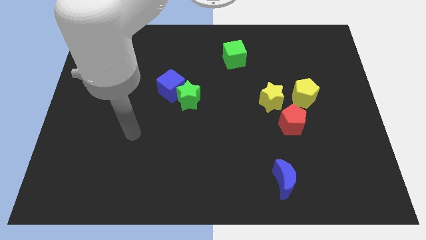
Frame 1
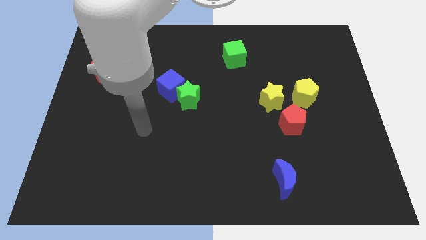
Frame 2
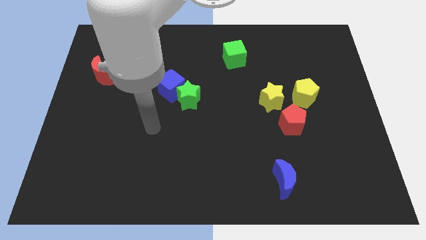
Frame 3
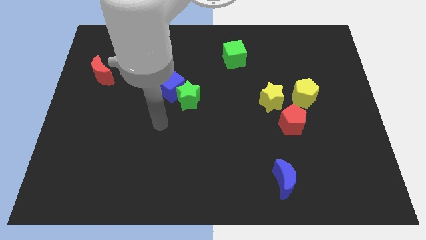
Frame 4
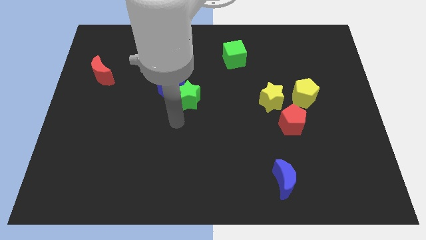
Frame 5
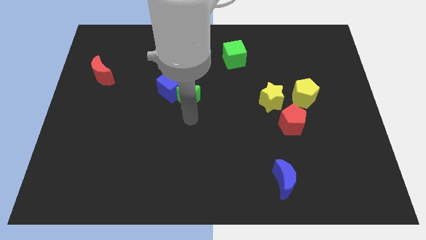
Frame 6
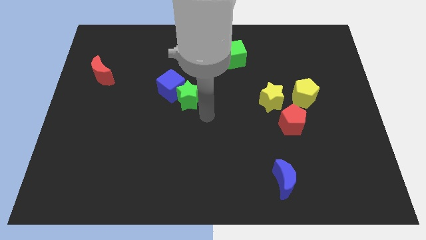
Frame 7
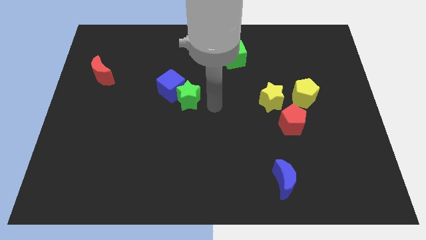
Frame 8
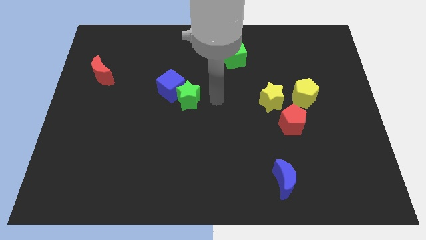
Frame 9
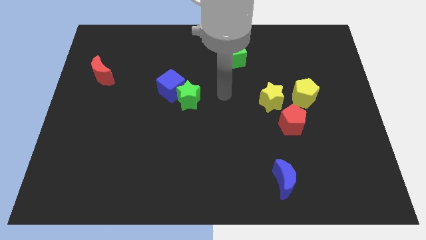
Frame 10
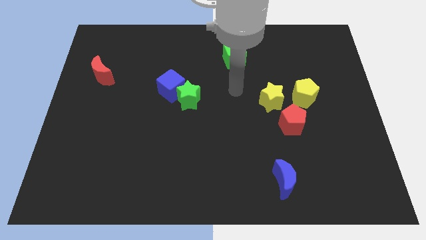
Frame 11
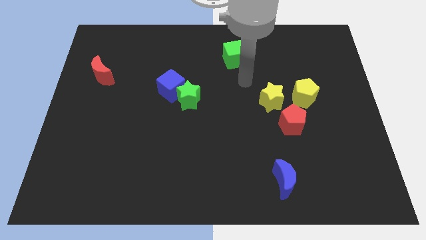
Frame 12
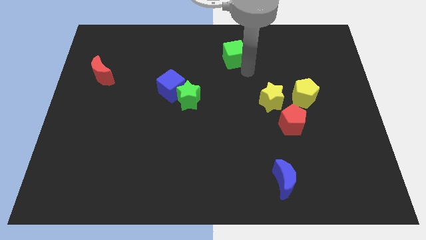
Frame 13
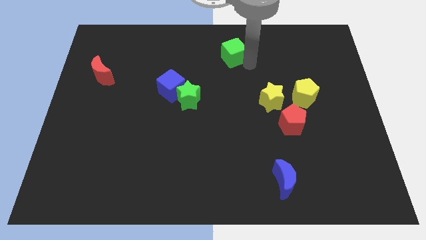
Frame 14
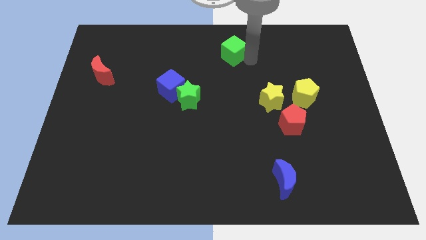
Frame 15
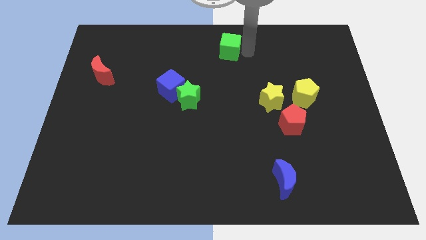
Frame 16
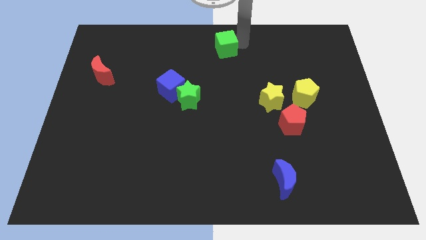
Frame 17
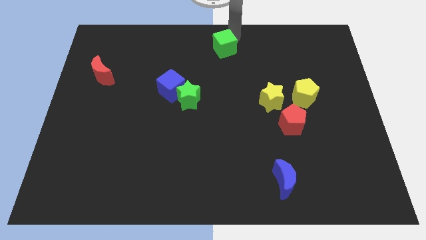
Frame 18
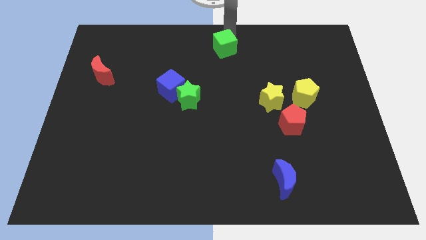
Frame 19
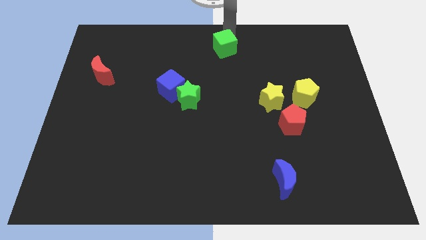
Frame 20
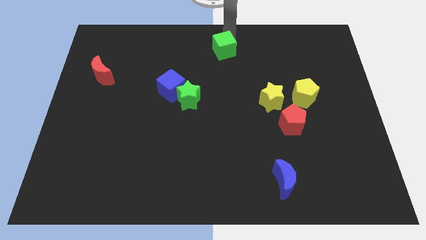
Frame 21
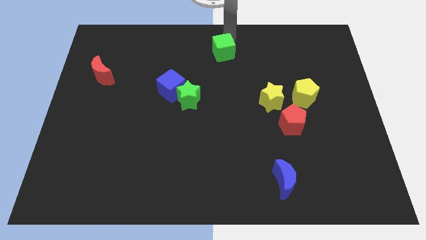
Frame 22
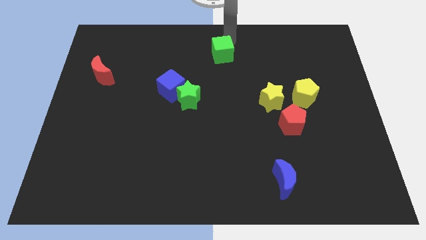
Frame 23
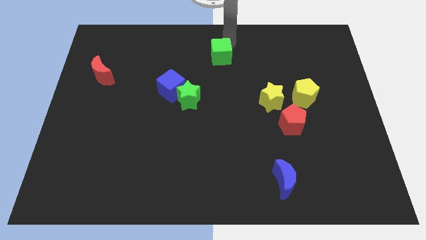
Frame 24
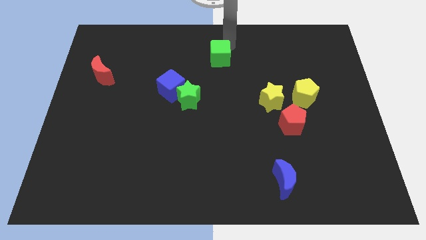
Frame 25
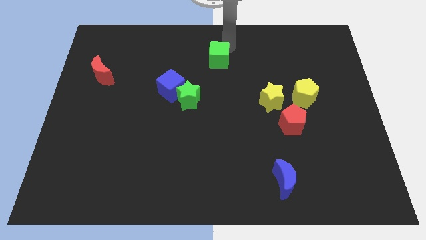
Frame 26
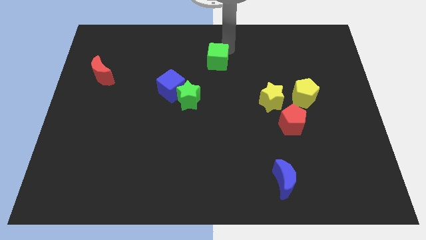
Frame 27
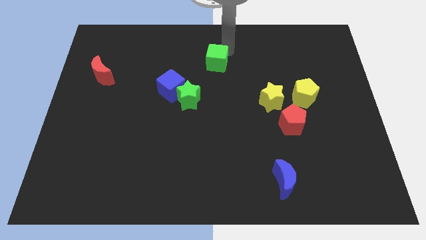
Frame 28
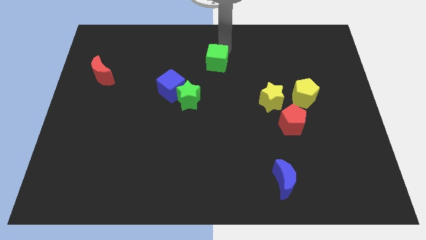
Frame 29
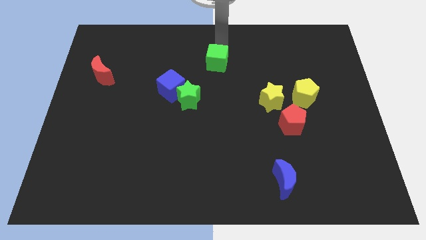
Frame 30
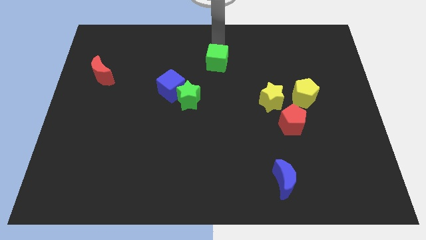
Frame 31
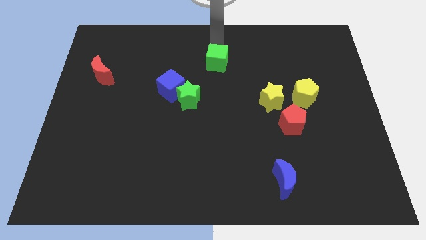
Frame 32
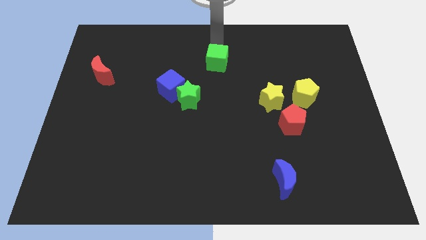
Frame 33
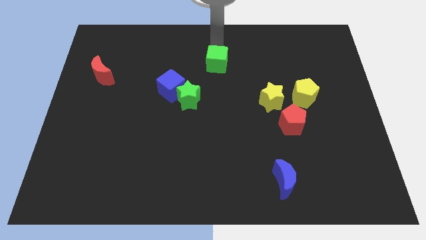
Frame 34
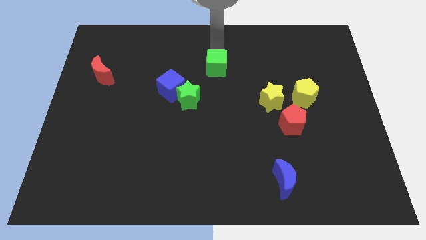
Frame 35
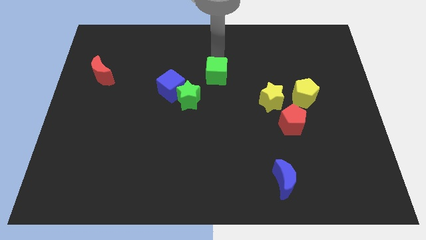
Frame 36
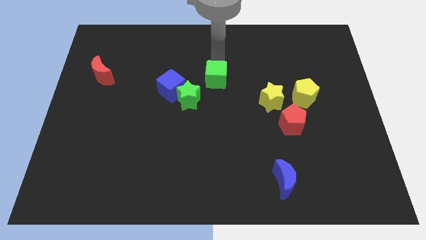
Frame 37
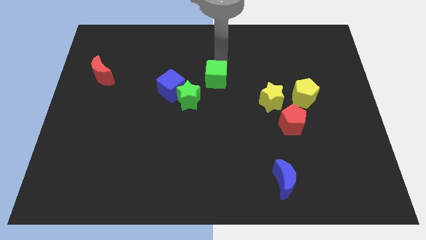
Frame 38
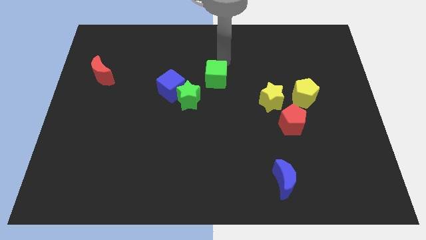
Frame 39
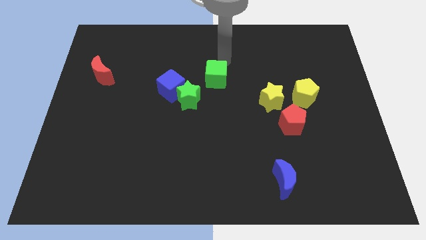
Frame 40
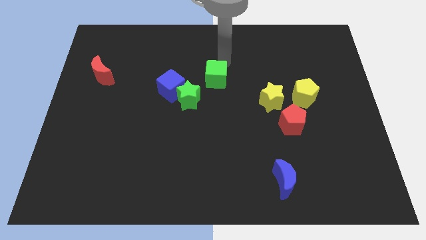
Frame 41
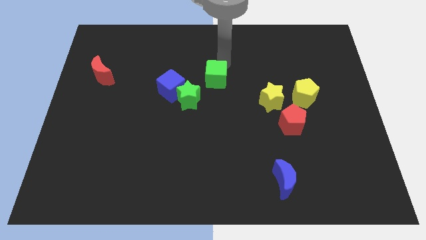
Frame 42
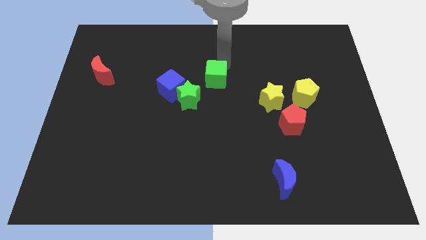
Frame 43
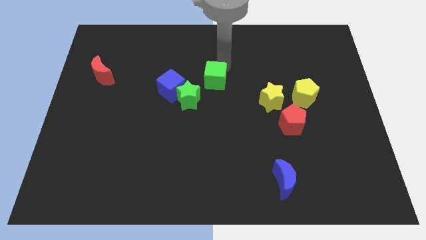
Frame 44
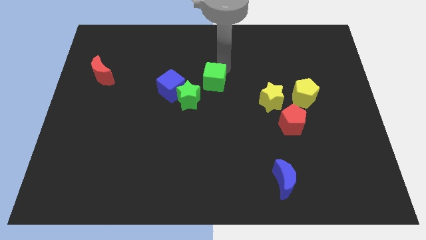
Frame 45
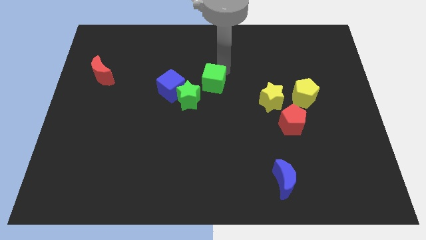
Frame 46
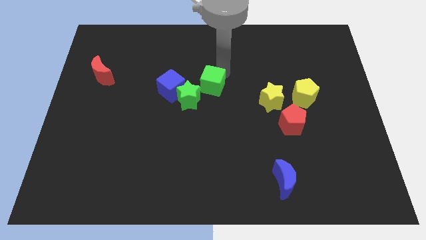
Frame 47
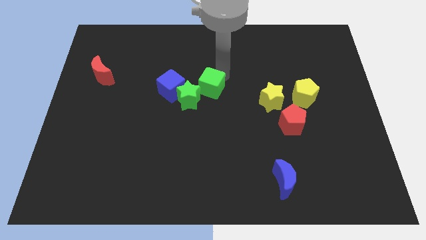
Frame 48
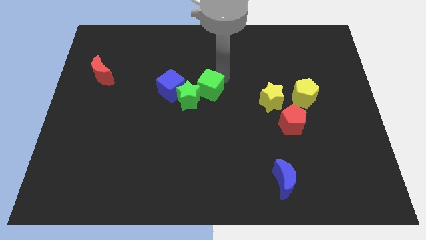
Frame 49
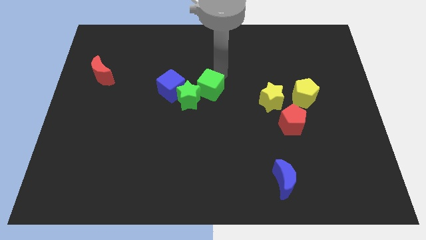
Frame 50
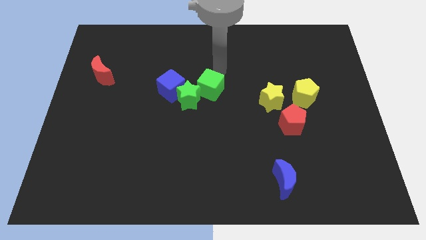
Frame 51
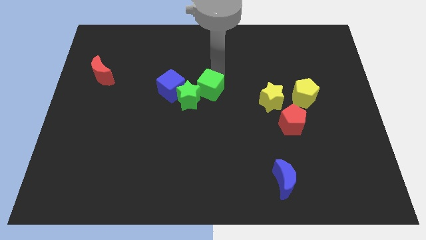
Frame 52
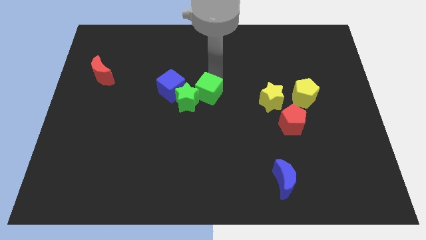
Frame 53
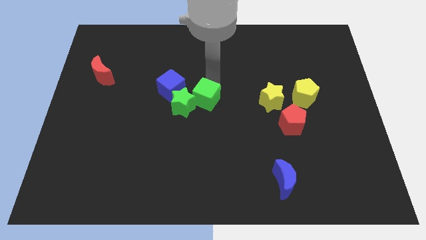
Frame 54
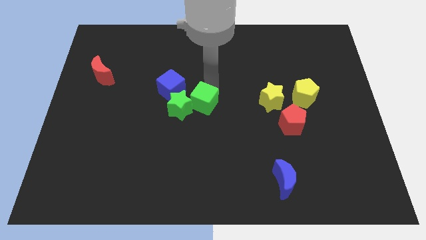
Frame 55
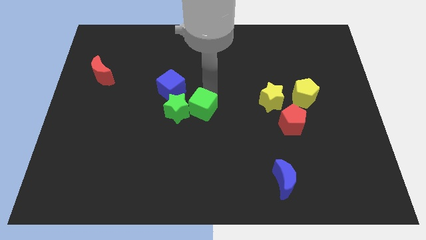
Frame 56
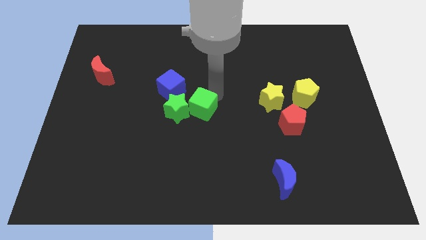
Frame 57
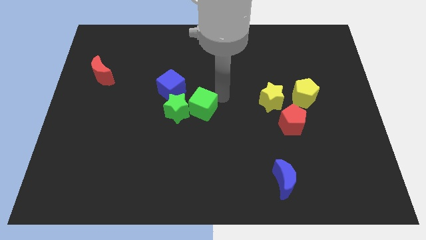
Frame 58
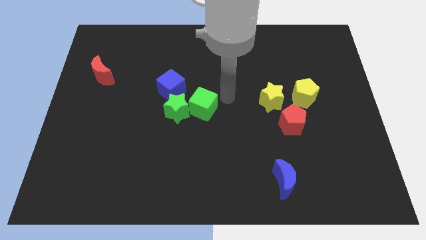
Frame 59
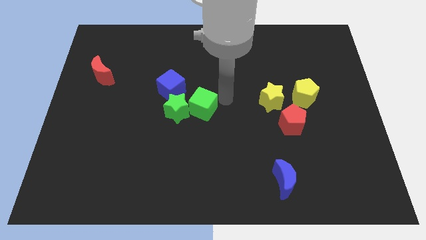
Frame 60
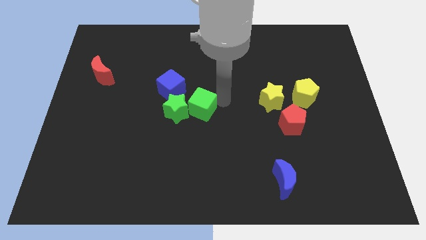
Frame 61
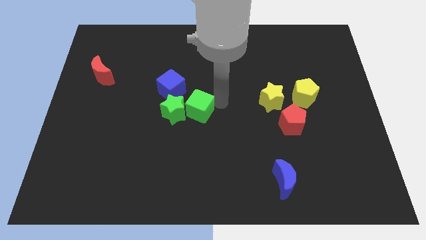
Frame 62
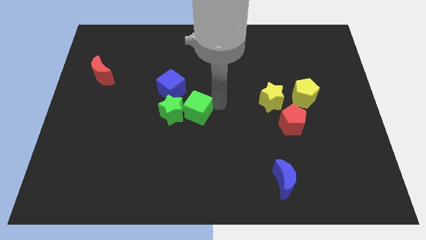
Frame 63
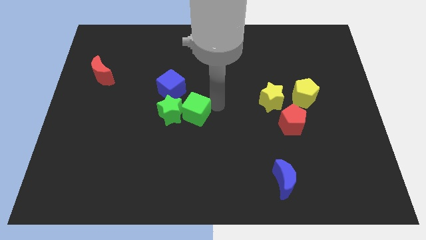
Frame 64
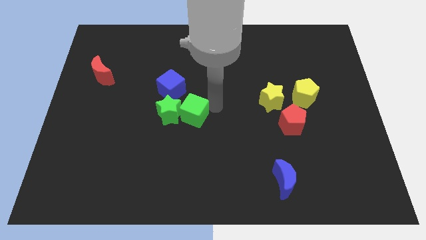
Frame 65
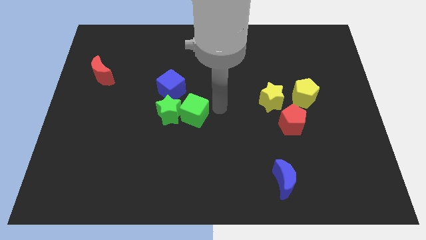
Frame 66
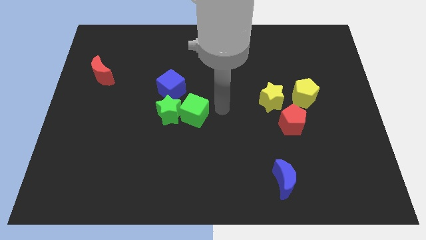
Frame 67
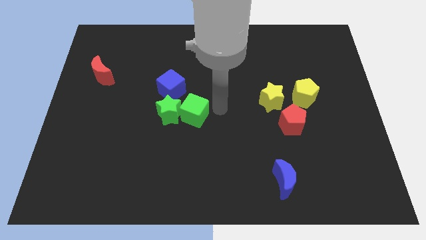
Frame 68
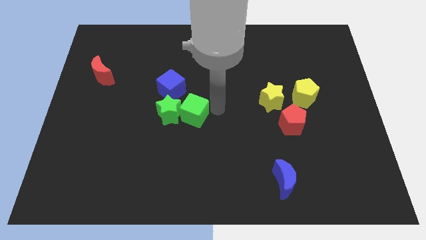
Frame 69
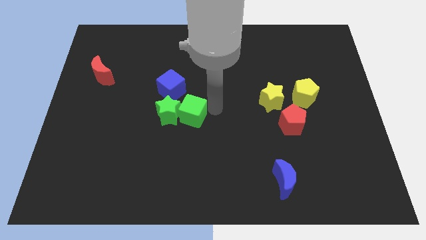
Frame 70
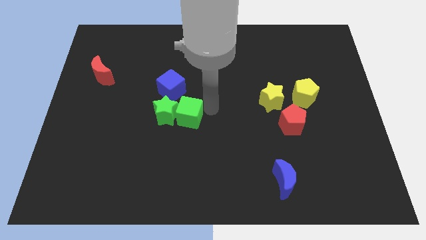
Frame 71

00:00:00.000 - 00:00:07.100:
slide the green cube downwards and left diagonally

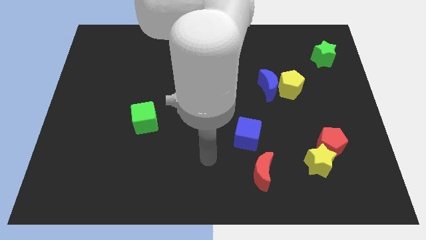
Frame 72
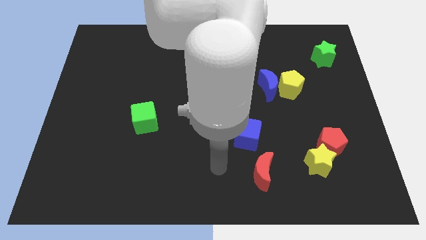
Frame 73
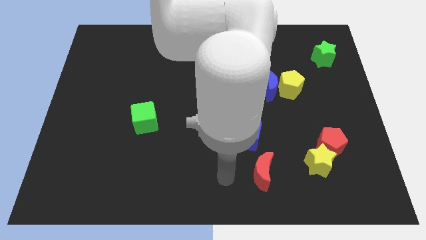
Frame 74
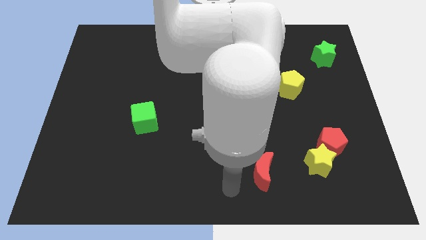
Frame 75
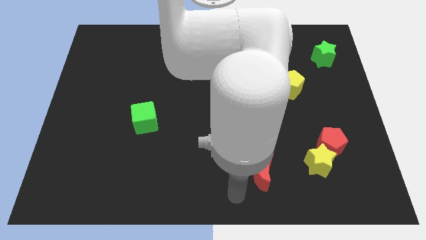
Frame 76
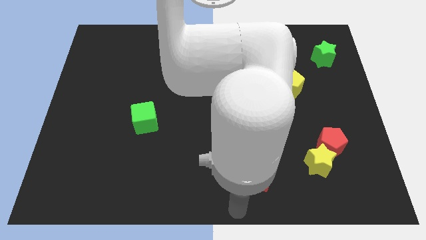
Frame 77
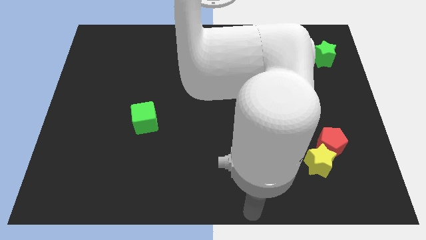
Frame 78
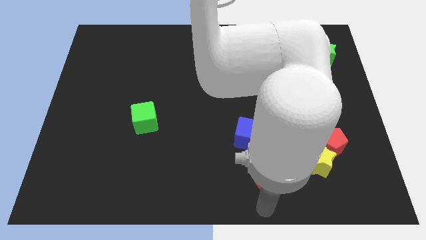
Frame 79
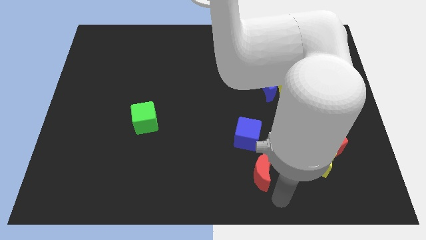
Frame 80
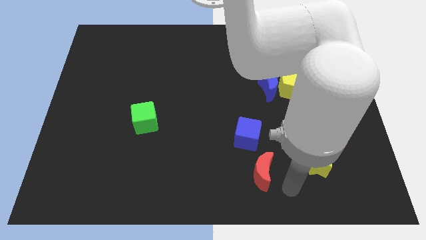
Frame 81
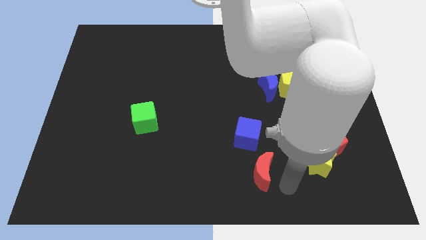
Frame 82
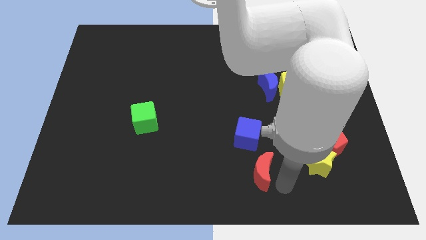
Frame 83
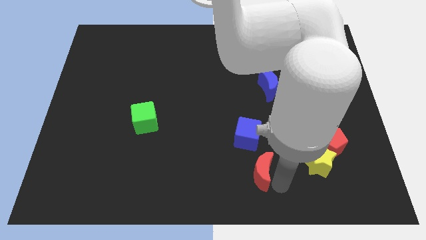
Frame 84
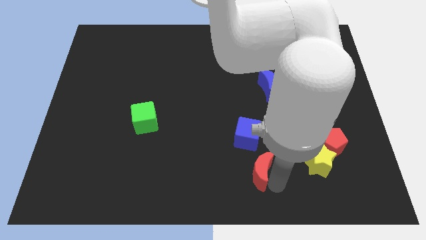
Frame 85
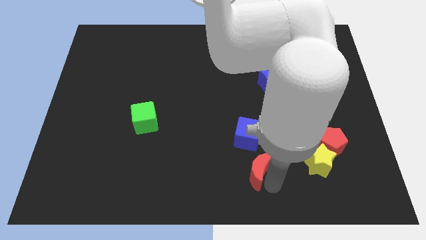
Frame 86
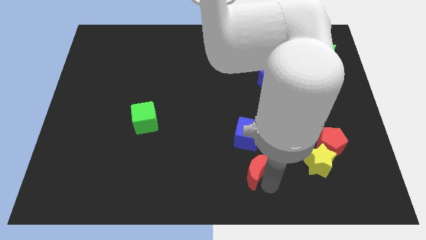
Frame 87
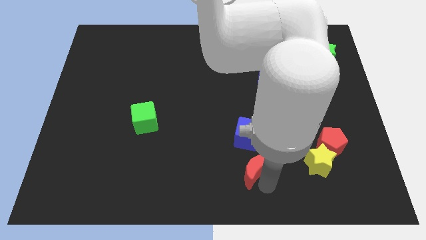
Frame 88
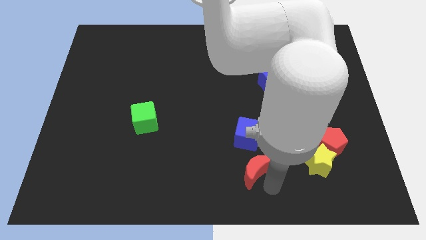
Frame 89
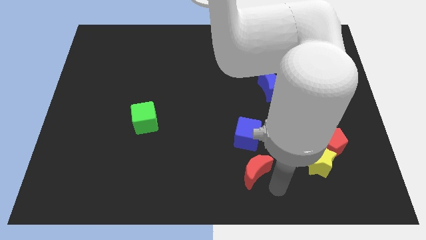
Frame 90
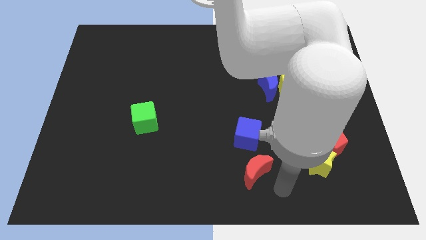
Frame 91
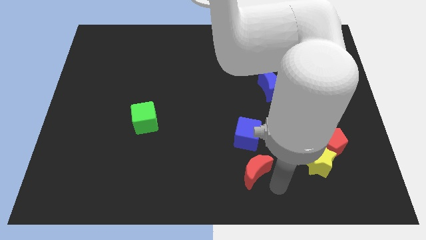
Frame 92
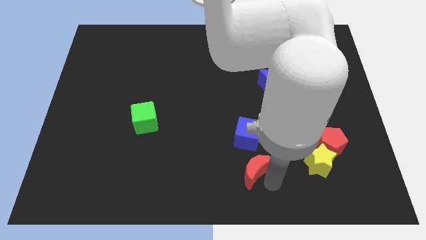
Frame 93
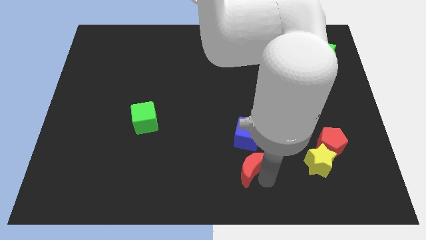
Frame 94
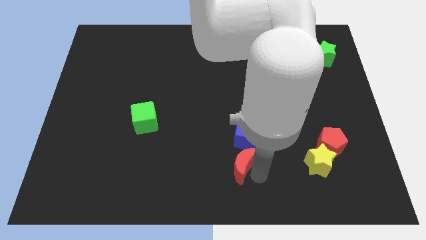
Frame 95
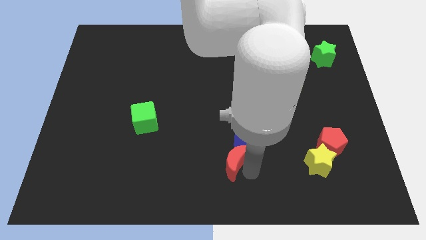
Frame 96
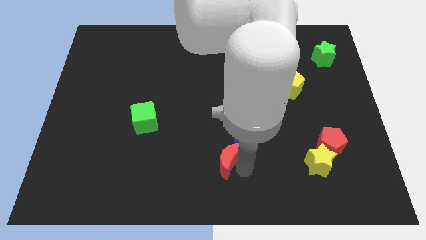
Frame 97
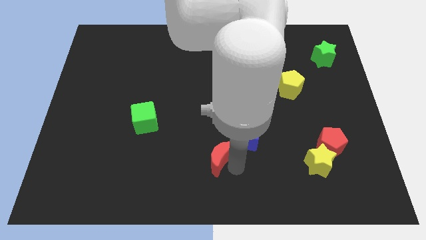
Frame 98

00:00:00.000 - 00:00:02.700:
push the red moon a little up and to the left diagonally
